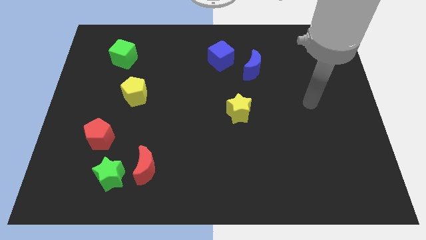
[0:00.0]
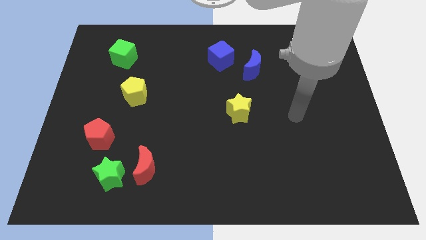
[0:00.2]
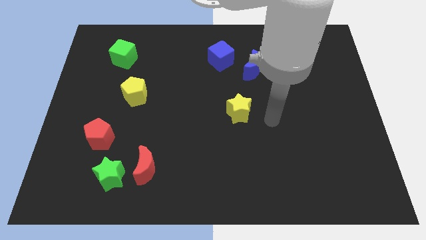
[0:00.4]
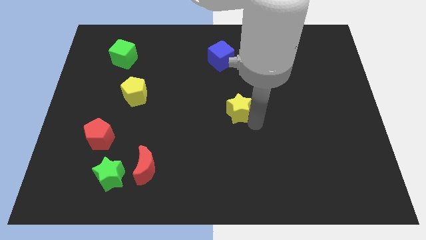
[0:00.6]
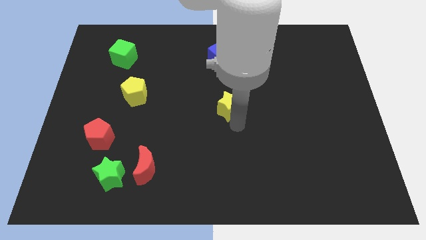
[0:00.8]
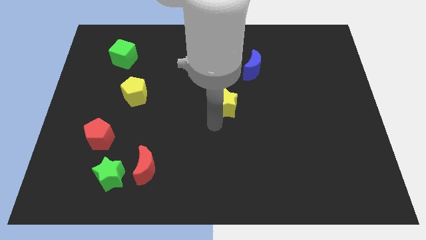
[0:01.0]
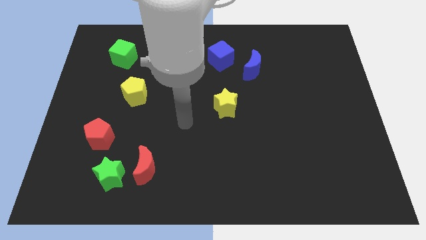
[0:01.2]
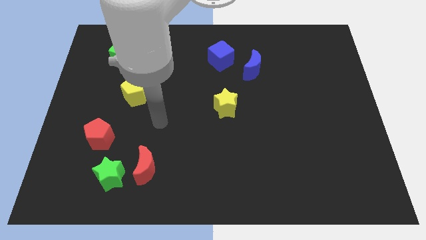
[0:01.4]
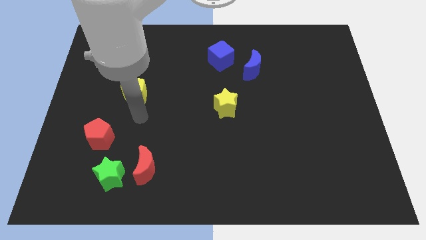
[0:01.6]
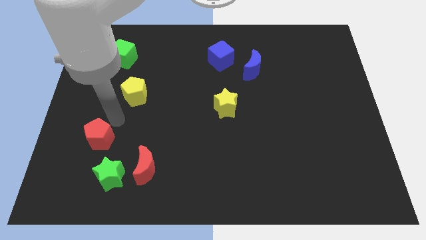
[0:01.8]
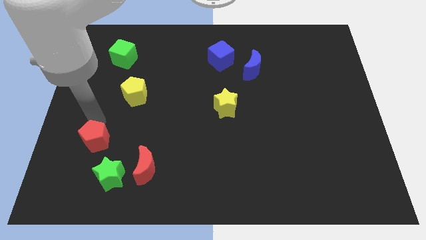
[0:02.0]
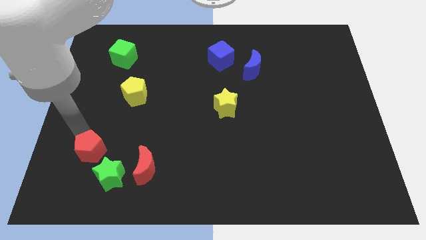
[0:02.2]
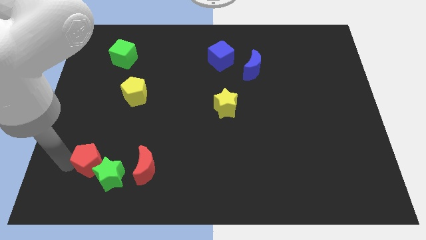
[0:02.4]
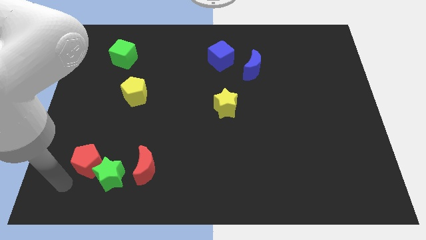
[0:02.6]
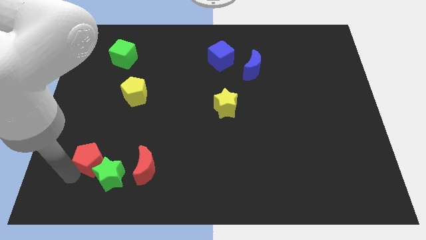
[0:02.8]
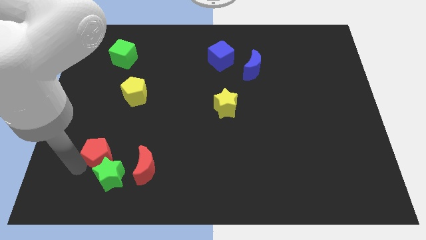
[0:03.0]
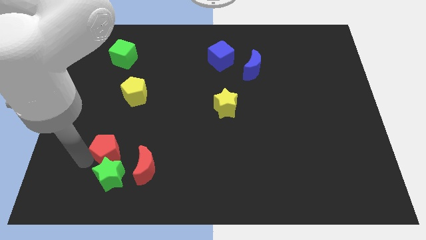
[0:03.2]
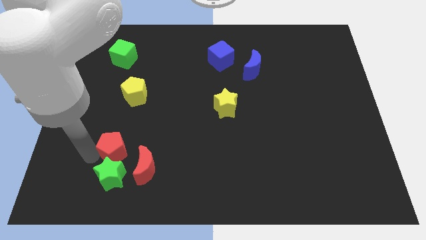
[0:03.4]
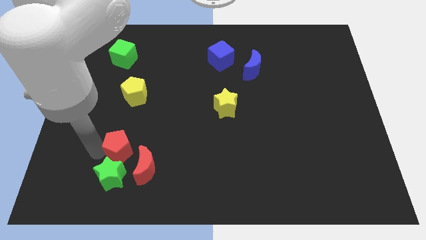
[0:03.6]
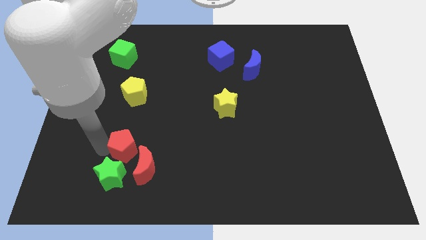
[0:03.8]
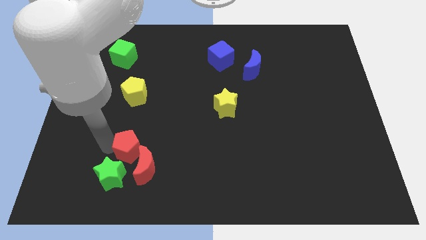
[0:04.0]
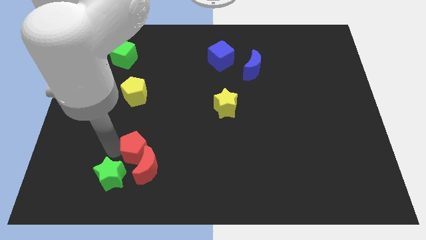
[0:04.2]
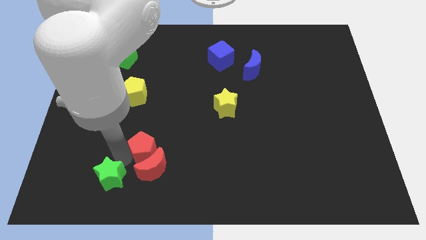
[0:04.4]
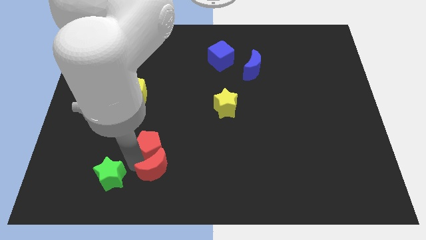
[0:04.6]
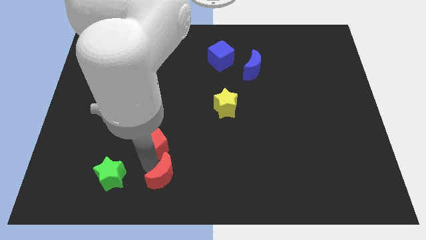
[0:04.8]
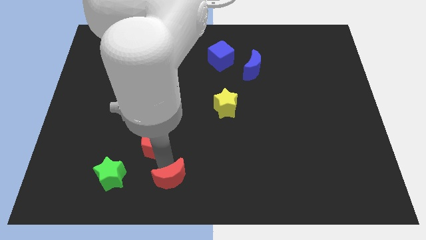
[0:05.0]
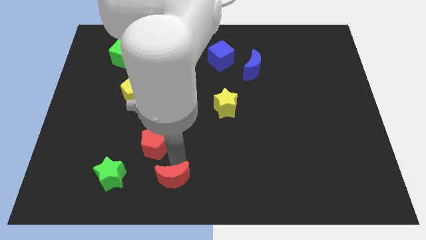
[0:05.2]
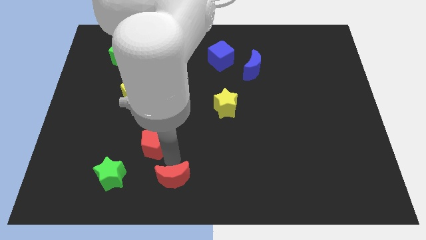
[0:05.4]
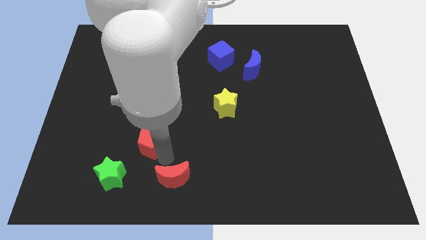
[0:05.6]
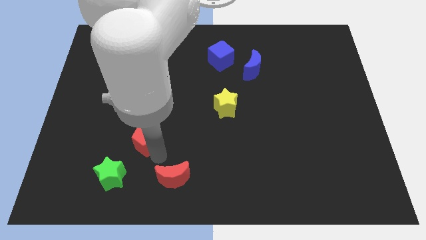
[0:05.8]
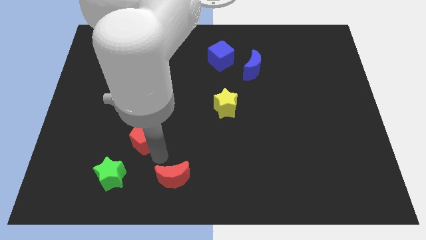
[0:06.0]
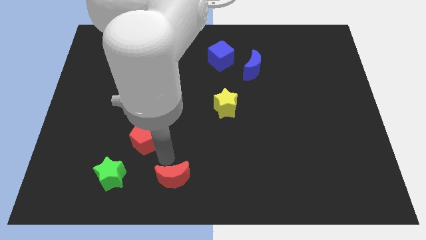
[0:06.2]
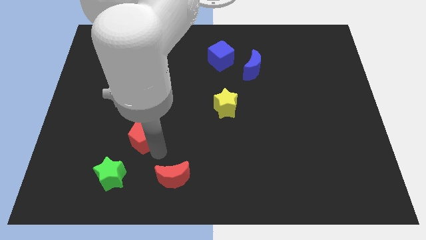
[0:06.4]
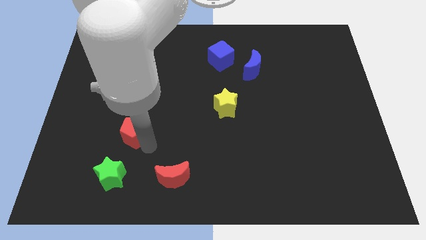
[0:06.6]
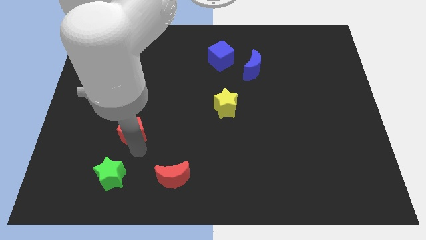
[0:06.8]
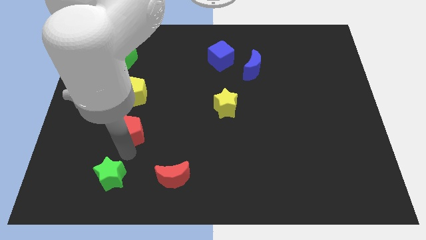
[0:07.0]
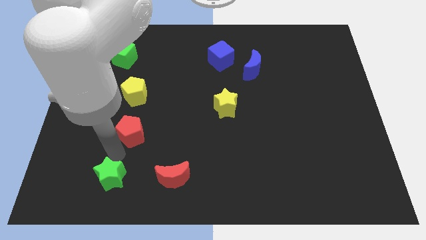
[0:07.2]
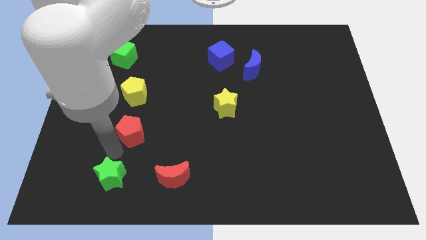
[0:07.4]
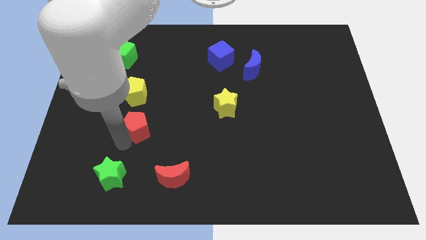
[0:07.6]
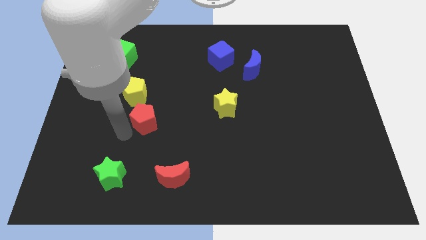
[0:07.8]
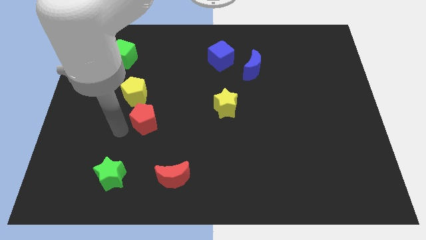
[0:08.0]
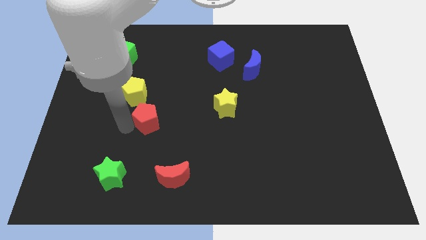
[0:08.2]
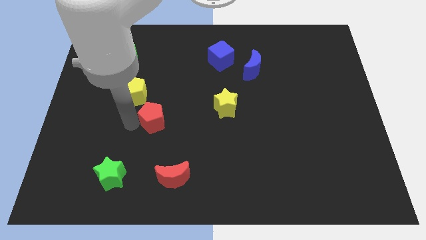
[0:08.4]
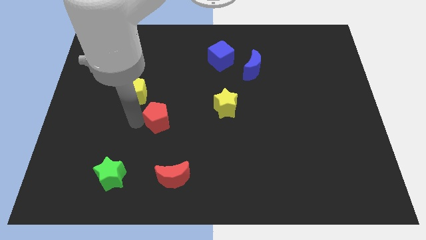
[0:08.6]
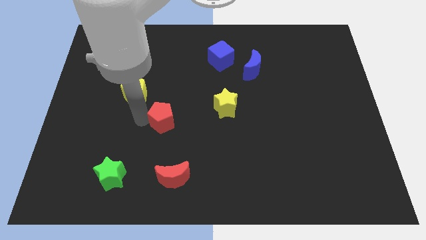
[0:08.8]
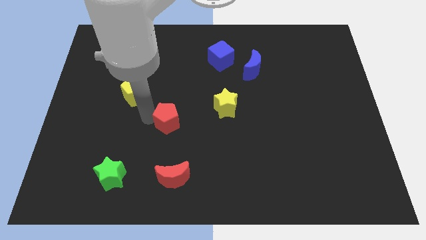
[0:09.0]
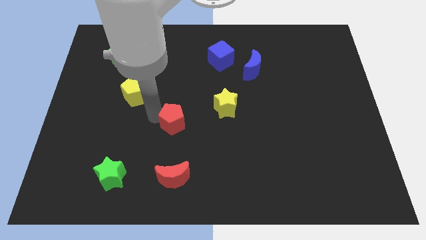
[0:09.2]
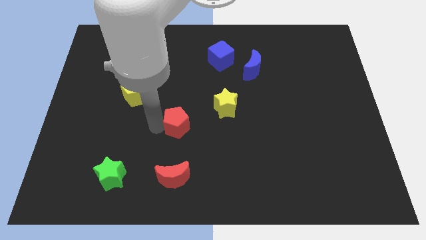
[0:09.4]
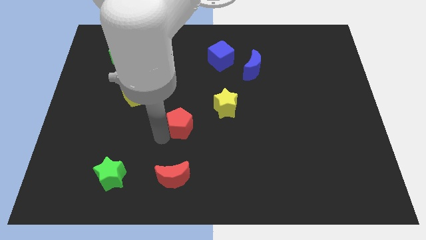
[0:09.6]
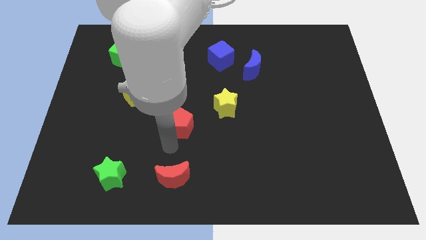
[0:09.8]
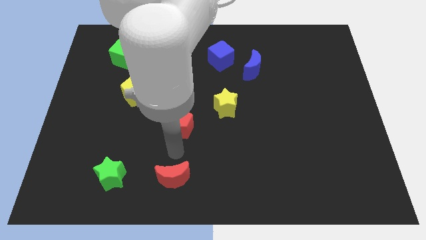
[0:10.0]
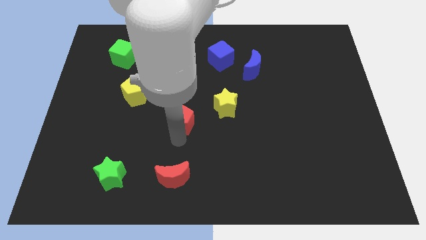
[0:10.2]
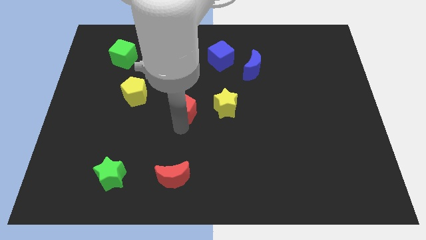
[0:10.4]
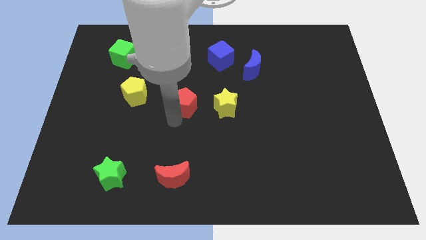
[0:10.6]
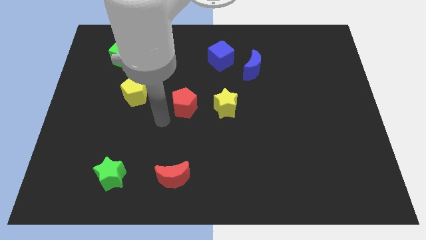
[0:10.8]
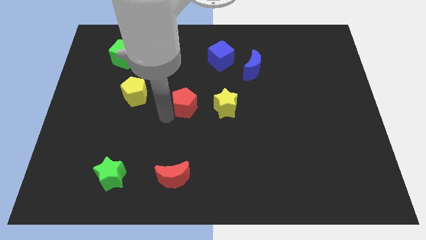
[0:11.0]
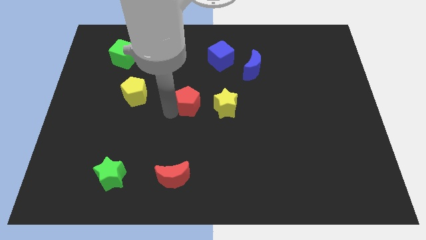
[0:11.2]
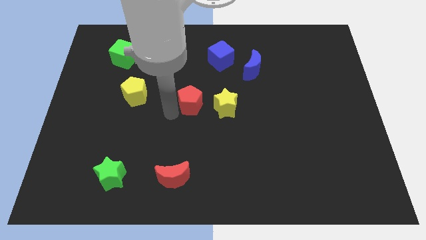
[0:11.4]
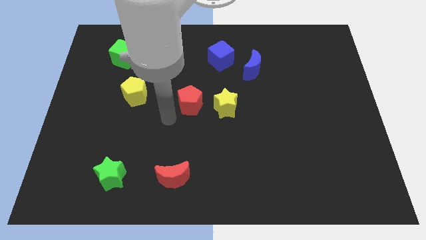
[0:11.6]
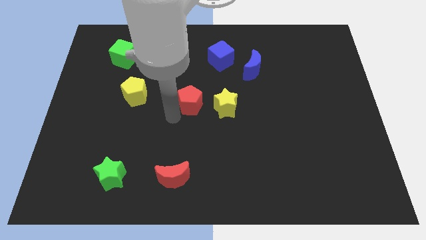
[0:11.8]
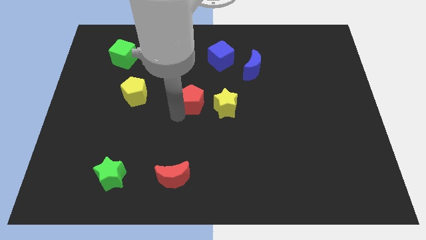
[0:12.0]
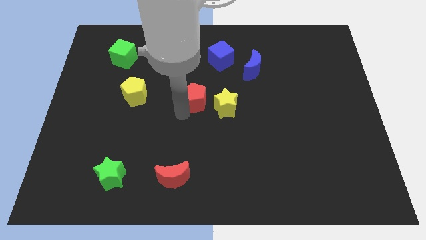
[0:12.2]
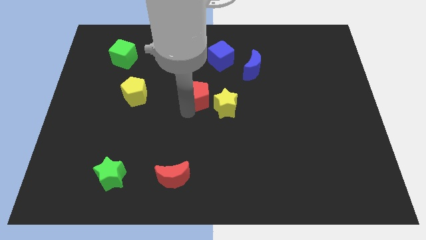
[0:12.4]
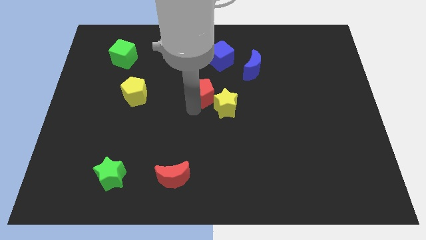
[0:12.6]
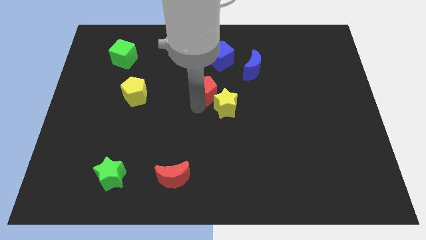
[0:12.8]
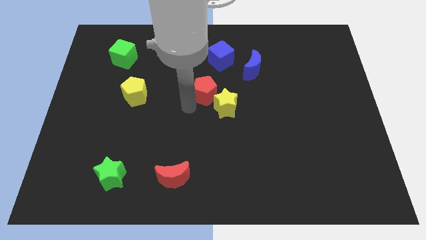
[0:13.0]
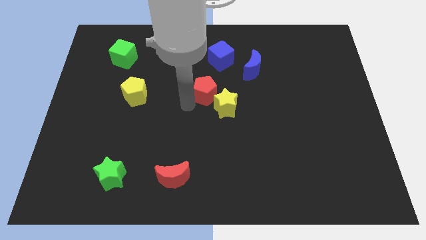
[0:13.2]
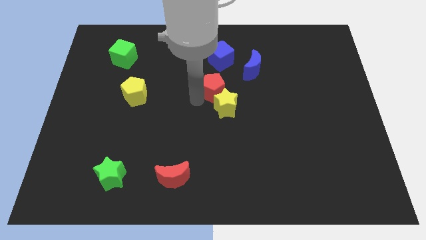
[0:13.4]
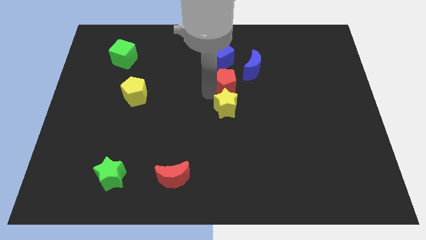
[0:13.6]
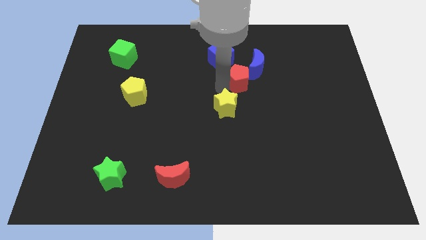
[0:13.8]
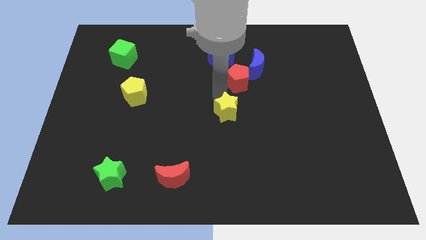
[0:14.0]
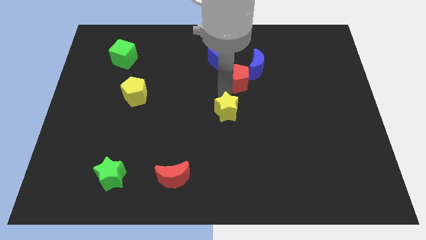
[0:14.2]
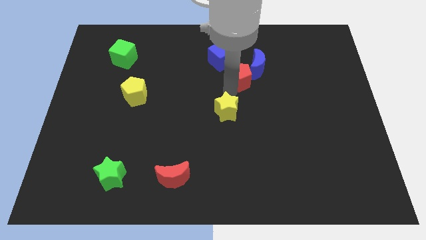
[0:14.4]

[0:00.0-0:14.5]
move the red pentagon towards the blue moon
